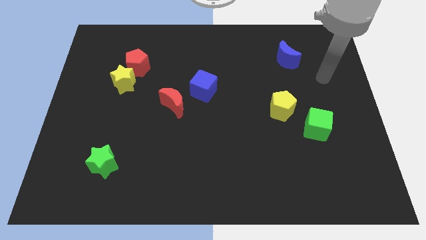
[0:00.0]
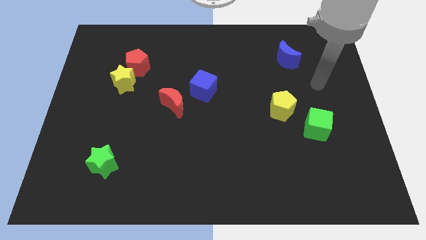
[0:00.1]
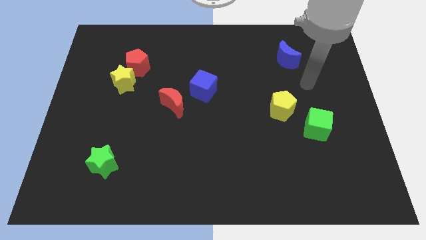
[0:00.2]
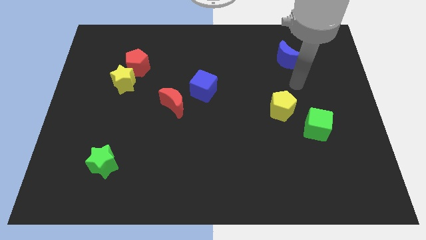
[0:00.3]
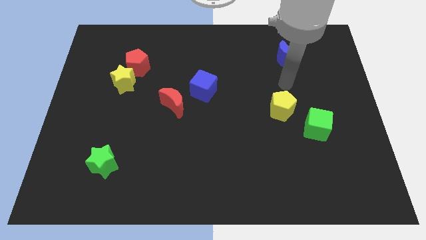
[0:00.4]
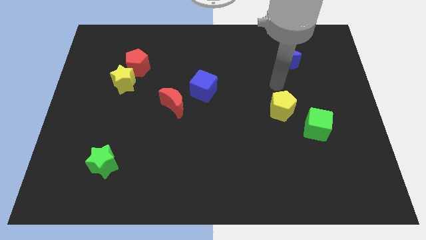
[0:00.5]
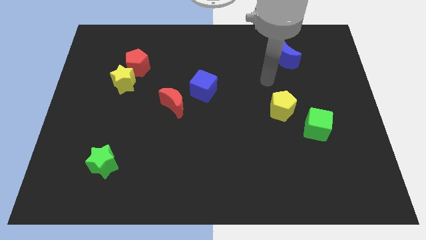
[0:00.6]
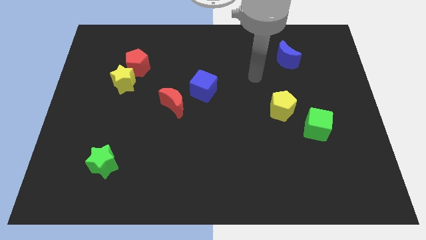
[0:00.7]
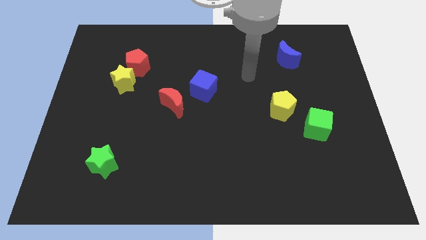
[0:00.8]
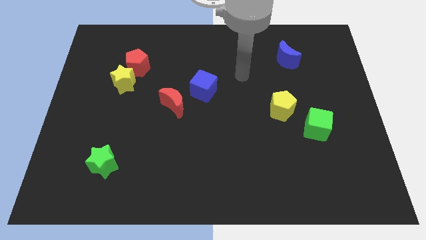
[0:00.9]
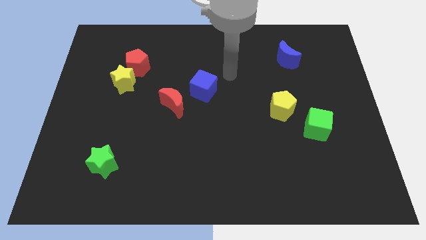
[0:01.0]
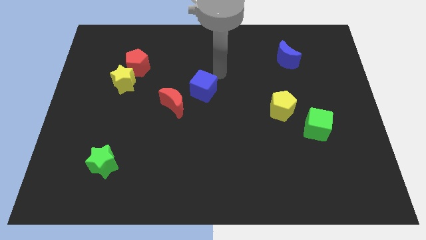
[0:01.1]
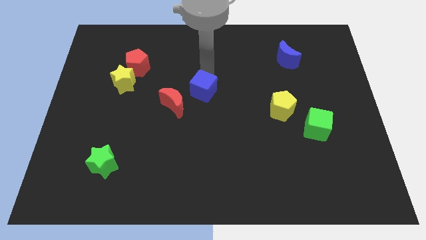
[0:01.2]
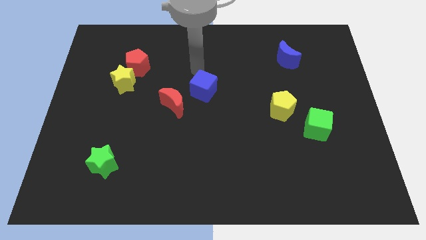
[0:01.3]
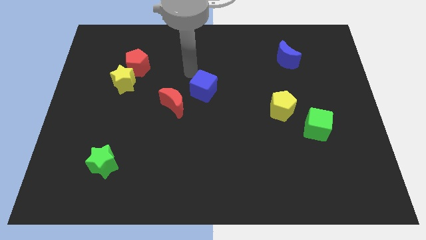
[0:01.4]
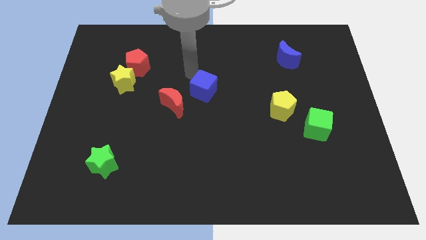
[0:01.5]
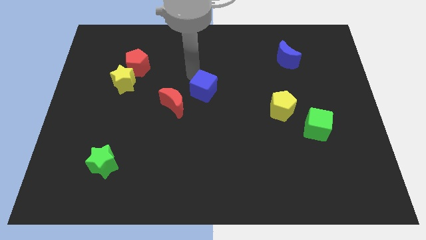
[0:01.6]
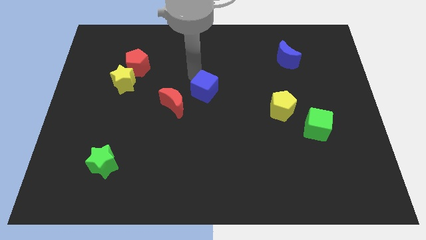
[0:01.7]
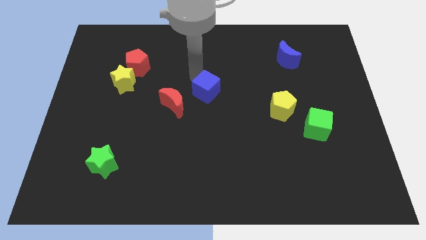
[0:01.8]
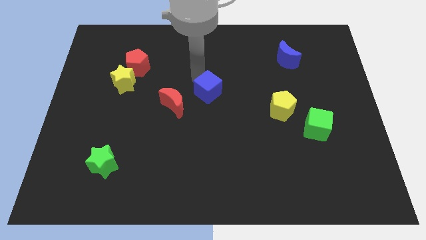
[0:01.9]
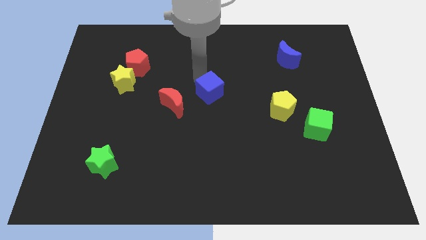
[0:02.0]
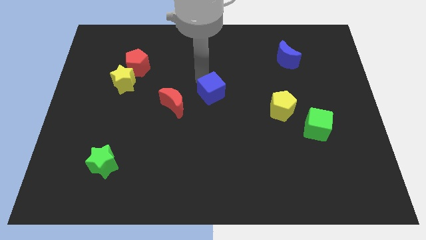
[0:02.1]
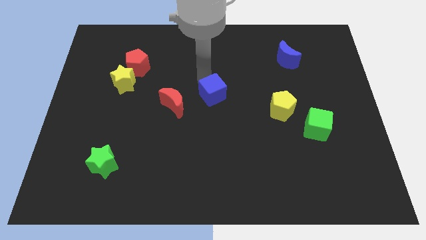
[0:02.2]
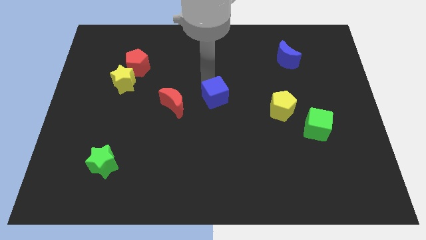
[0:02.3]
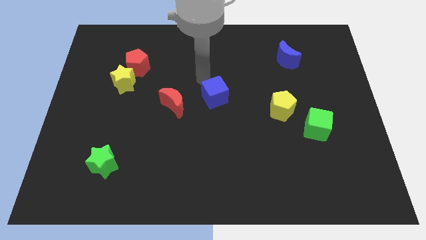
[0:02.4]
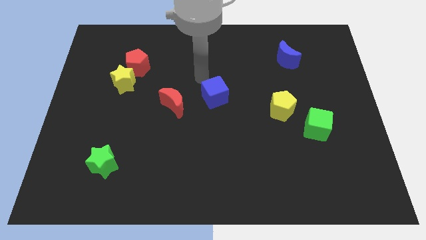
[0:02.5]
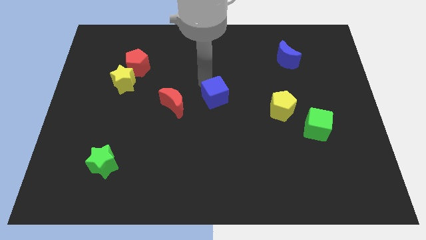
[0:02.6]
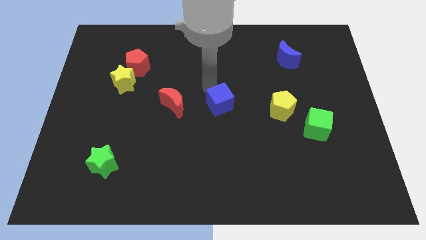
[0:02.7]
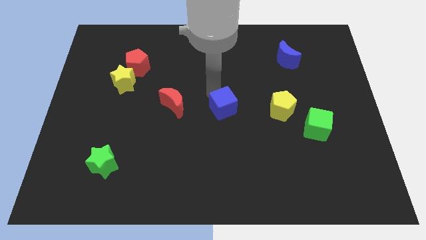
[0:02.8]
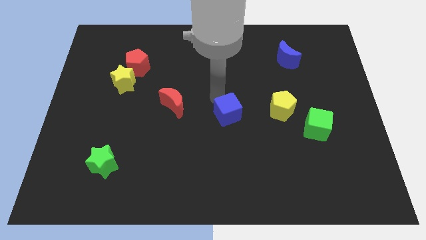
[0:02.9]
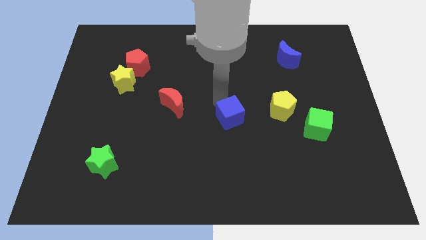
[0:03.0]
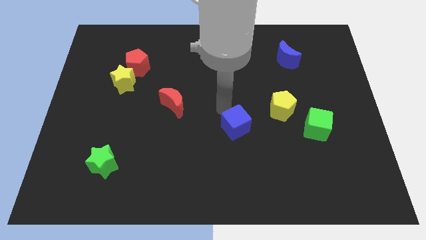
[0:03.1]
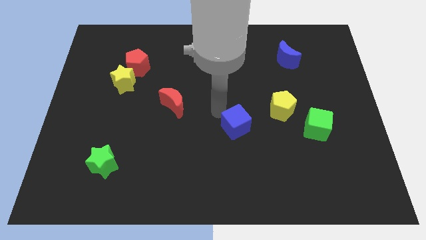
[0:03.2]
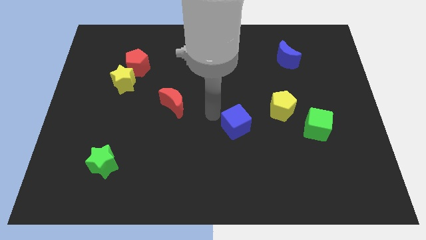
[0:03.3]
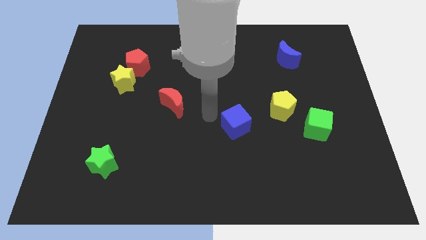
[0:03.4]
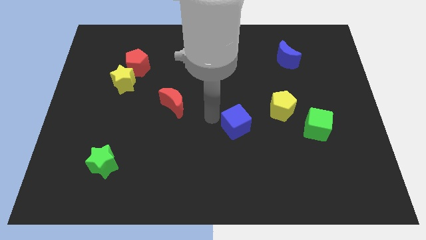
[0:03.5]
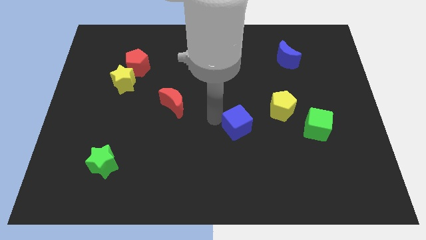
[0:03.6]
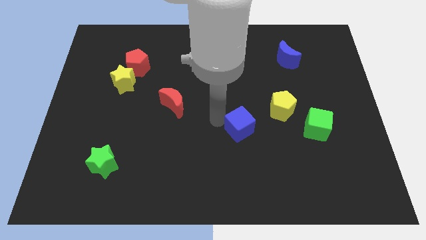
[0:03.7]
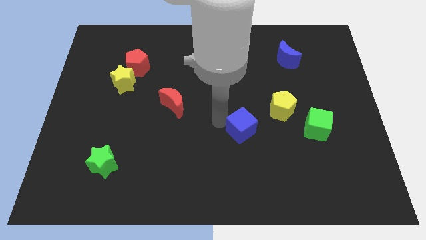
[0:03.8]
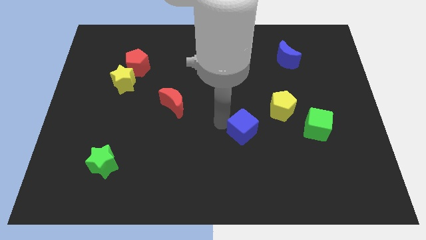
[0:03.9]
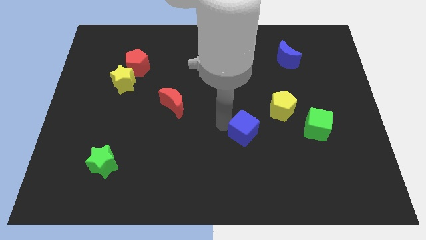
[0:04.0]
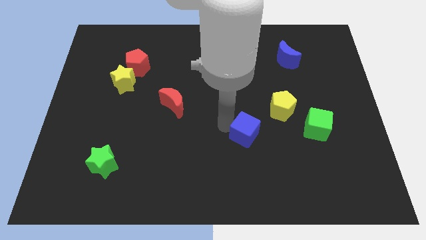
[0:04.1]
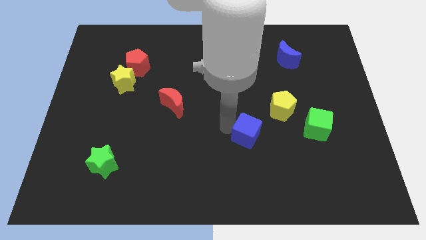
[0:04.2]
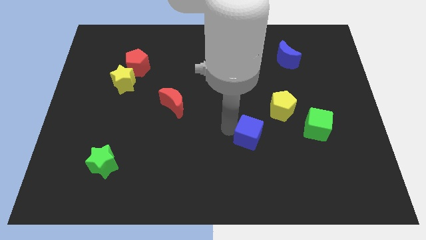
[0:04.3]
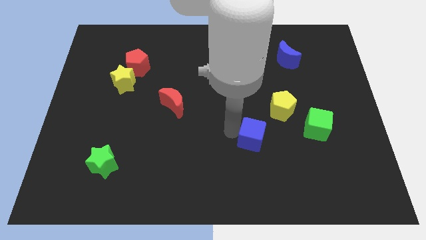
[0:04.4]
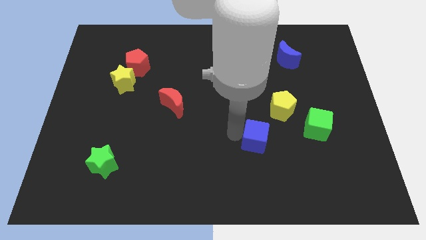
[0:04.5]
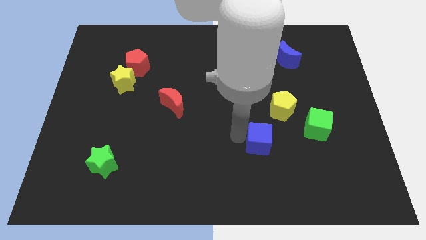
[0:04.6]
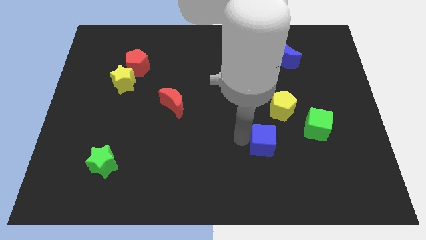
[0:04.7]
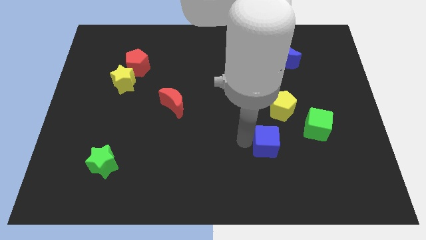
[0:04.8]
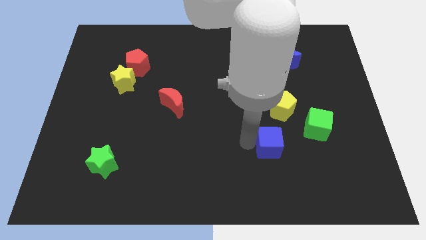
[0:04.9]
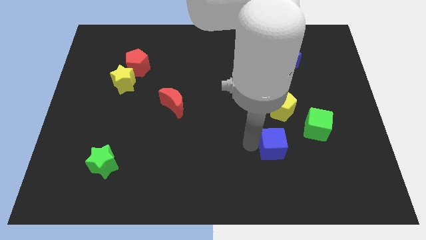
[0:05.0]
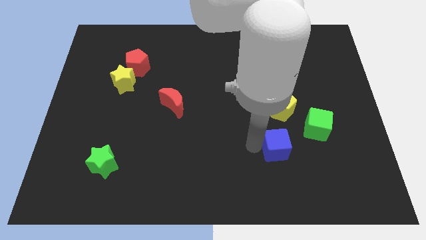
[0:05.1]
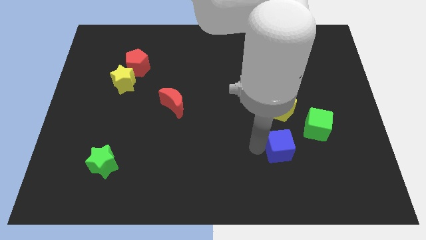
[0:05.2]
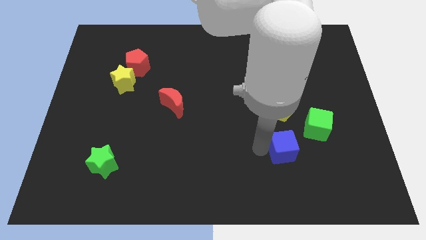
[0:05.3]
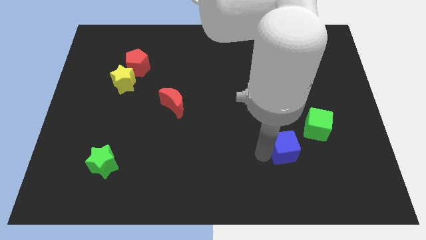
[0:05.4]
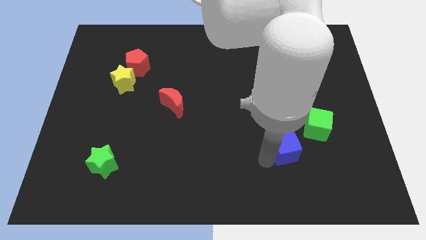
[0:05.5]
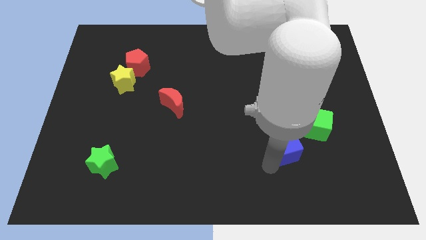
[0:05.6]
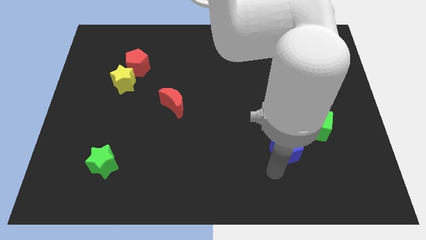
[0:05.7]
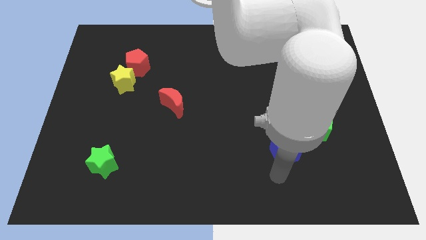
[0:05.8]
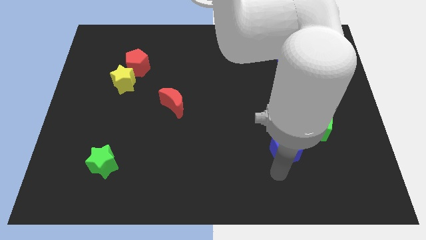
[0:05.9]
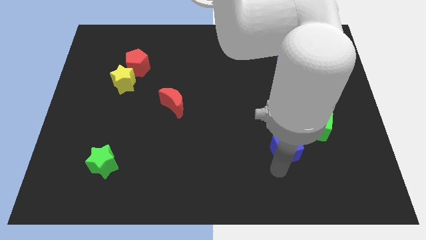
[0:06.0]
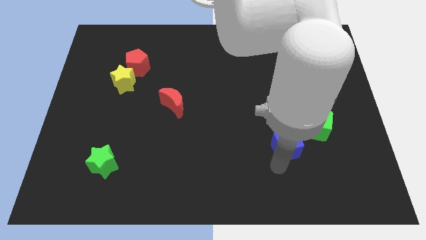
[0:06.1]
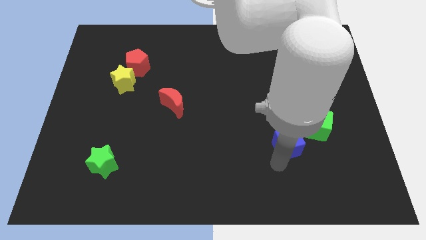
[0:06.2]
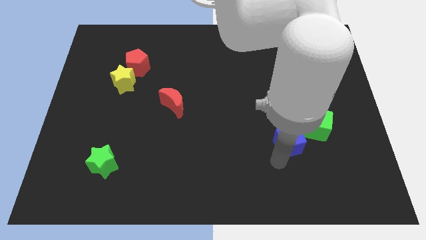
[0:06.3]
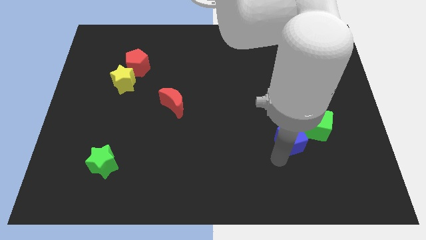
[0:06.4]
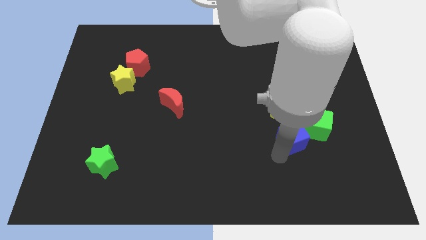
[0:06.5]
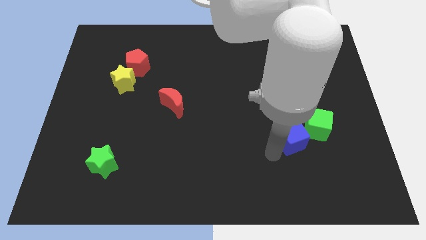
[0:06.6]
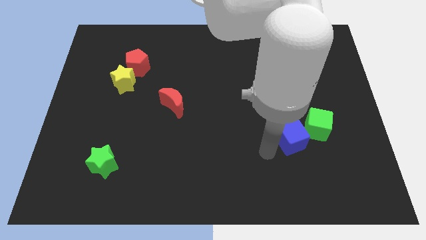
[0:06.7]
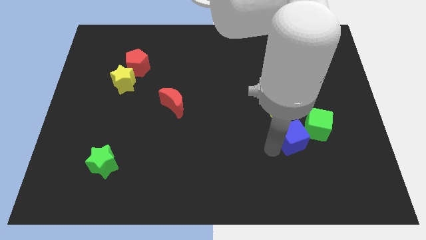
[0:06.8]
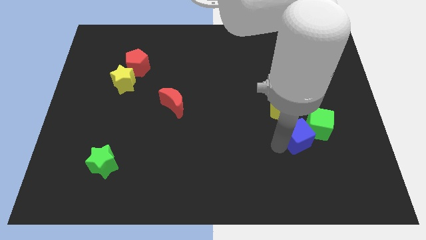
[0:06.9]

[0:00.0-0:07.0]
push the blue cube next to the green cube

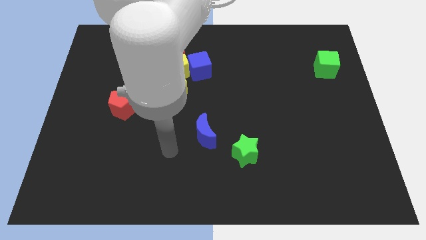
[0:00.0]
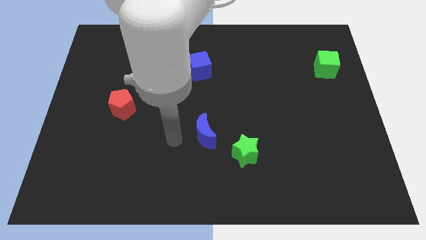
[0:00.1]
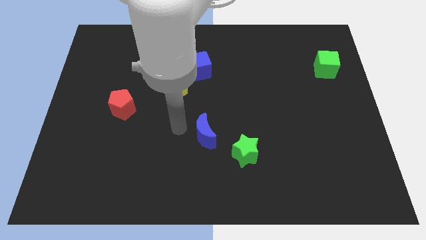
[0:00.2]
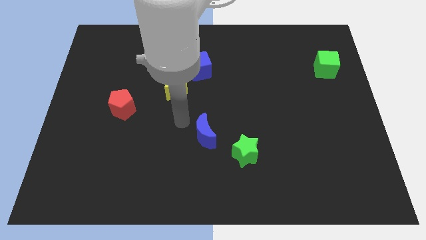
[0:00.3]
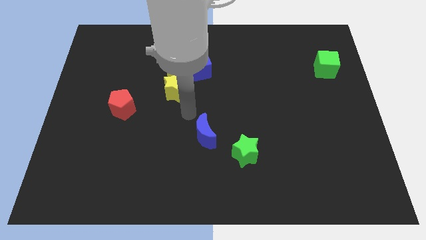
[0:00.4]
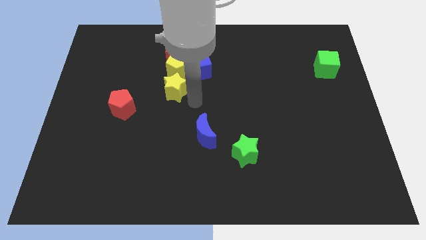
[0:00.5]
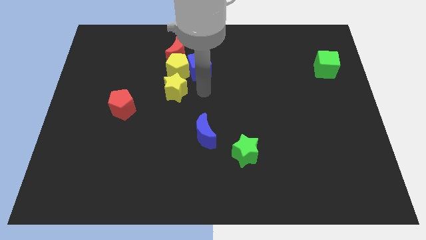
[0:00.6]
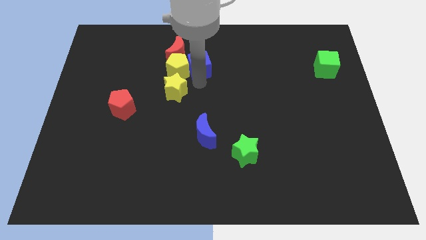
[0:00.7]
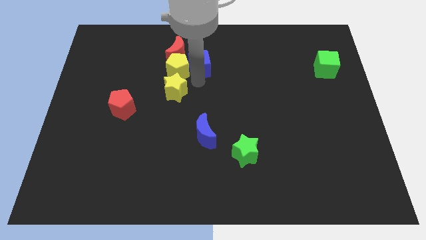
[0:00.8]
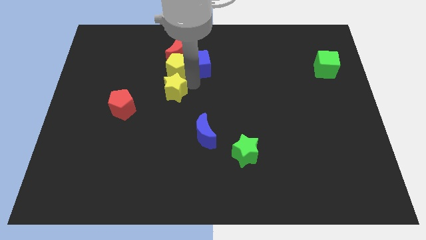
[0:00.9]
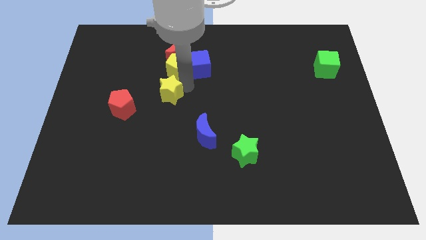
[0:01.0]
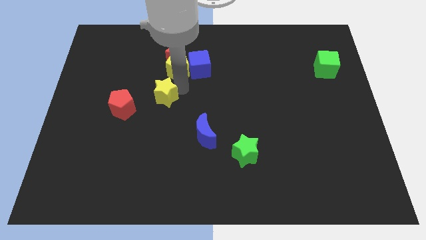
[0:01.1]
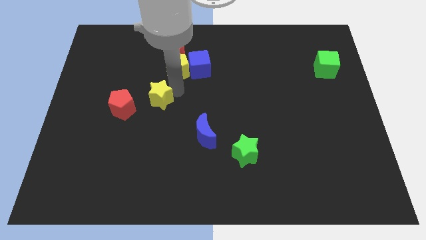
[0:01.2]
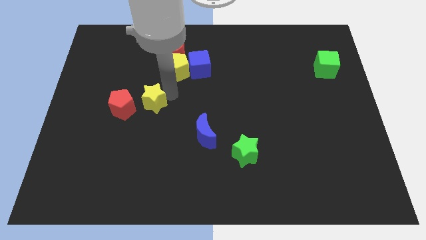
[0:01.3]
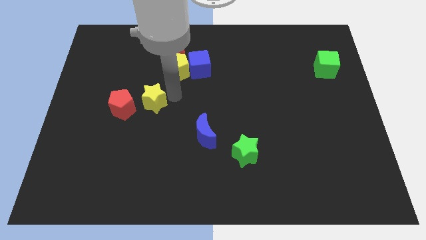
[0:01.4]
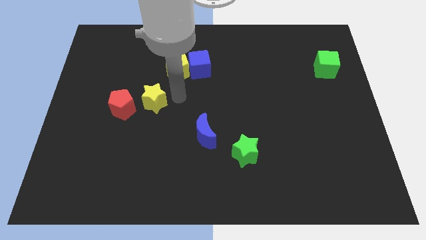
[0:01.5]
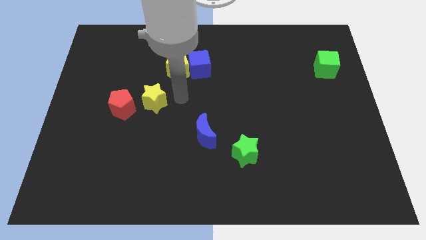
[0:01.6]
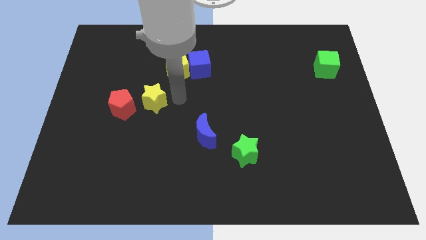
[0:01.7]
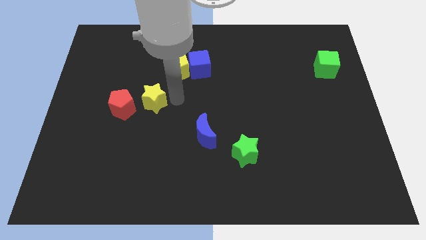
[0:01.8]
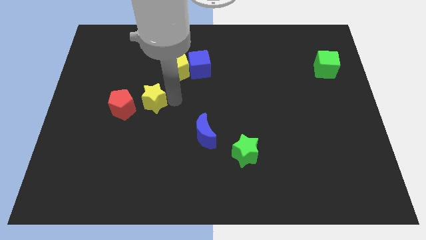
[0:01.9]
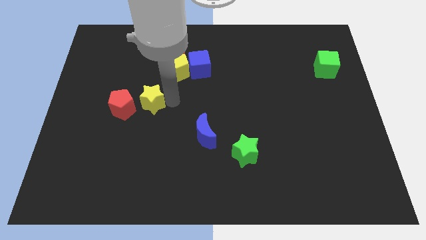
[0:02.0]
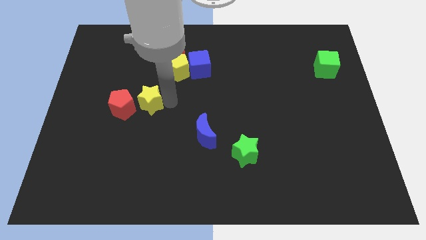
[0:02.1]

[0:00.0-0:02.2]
put the yellow star to the red pentagon
